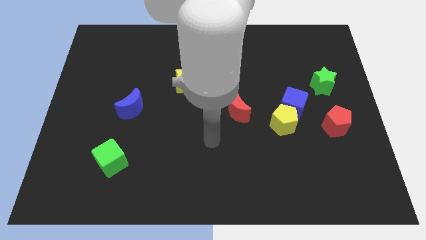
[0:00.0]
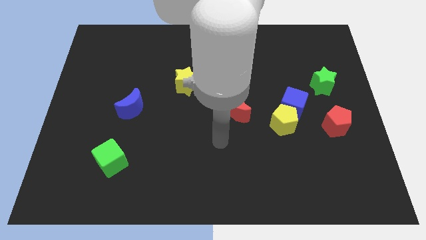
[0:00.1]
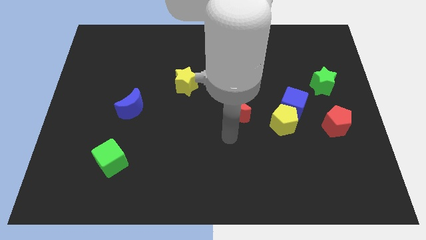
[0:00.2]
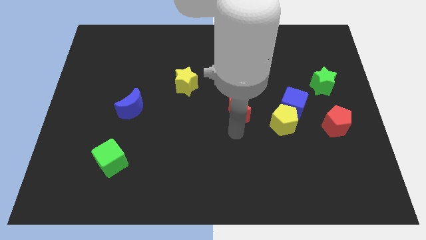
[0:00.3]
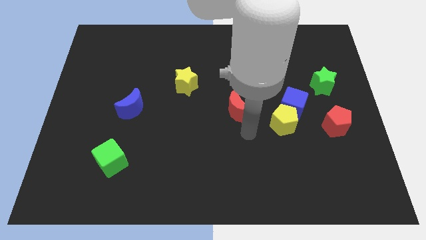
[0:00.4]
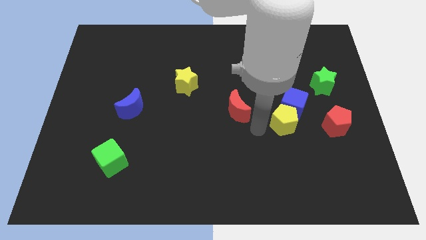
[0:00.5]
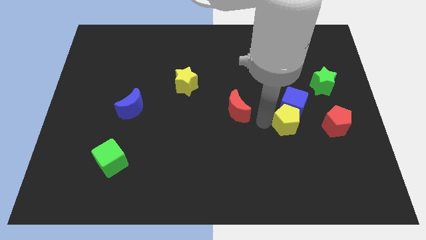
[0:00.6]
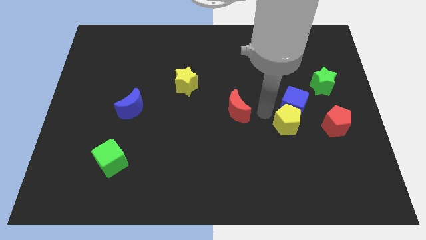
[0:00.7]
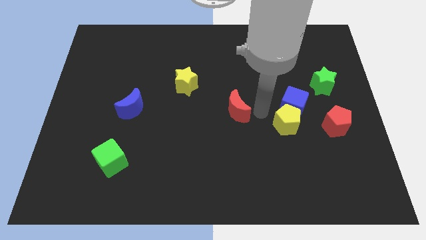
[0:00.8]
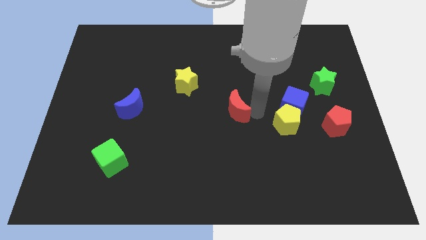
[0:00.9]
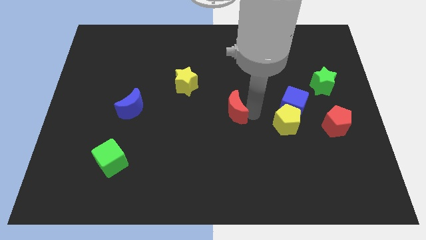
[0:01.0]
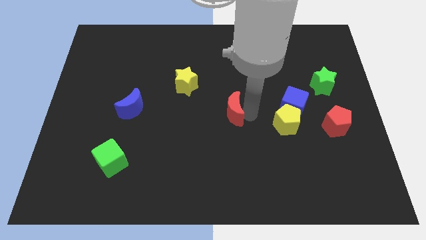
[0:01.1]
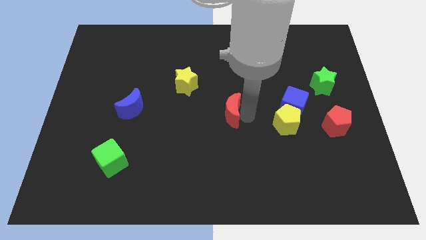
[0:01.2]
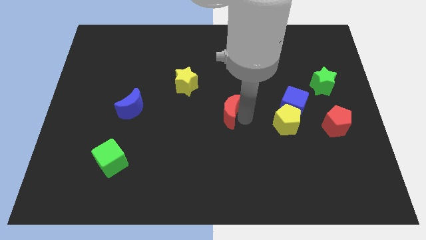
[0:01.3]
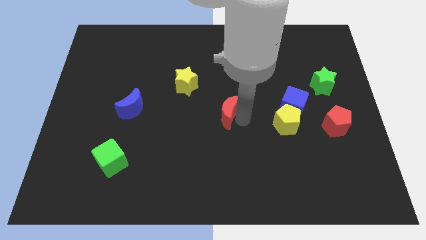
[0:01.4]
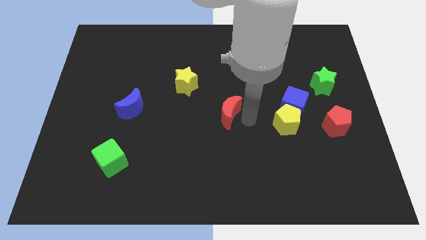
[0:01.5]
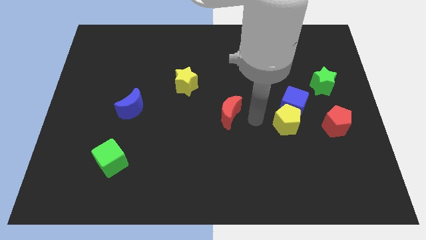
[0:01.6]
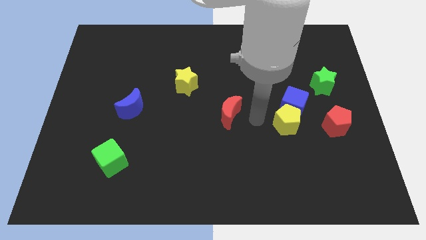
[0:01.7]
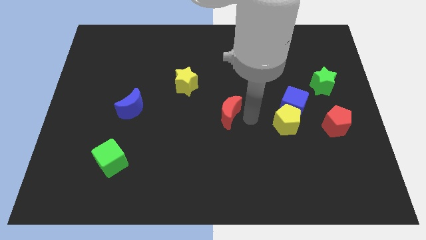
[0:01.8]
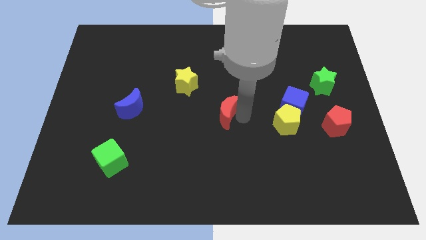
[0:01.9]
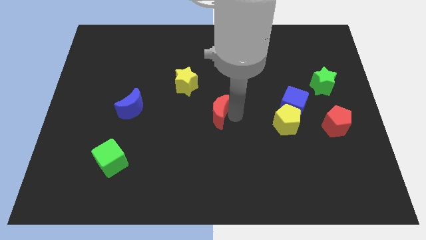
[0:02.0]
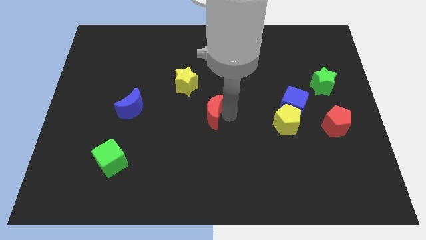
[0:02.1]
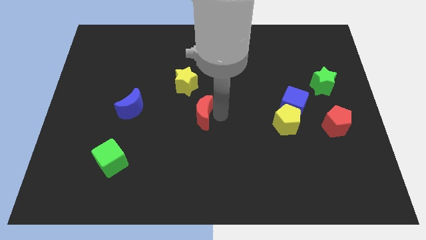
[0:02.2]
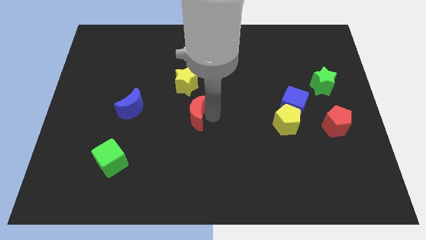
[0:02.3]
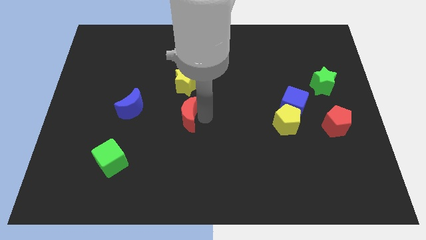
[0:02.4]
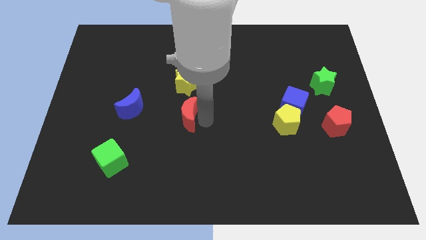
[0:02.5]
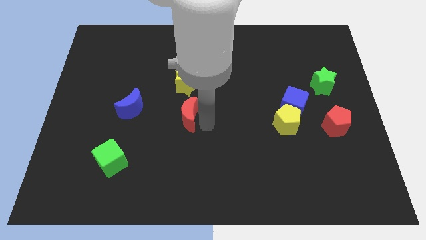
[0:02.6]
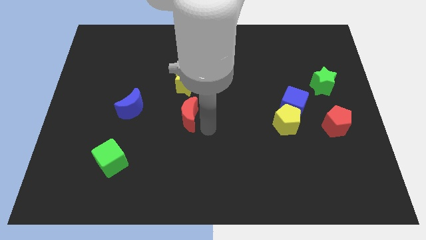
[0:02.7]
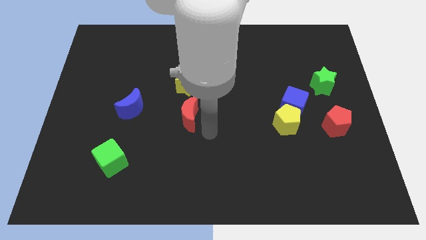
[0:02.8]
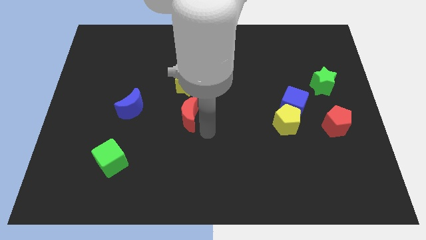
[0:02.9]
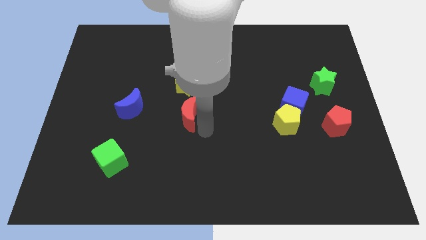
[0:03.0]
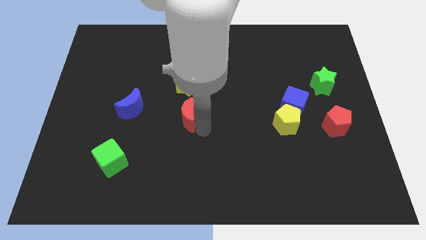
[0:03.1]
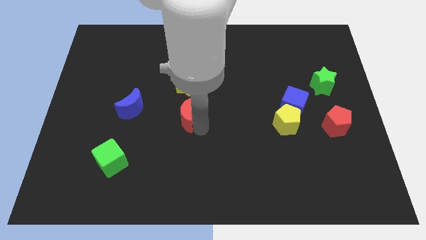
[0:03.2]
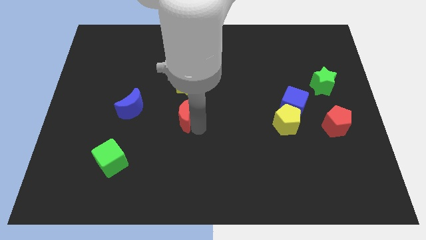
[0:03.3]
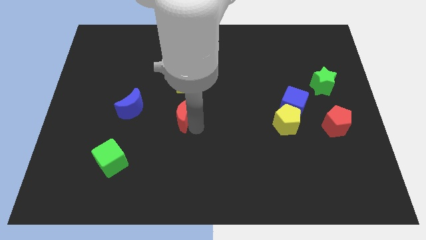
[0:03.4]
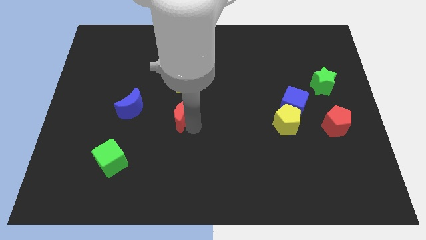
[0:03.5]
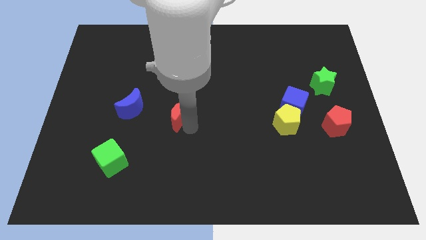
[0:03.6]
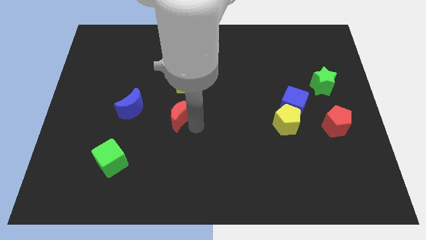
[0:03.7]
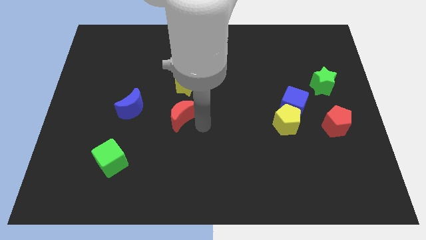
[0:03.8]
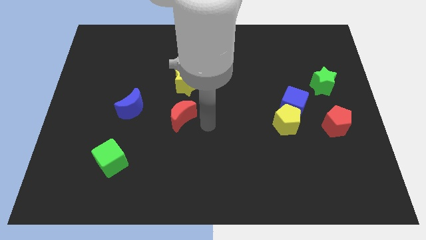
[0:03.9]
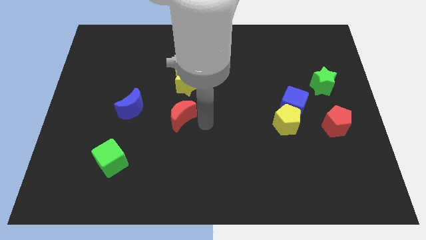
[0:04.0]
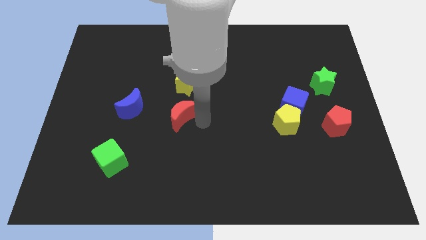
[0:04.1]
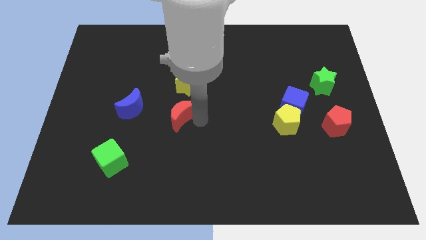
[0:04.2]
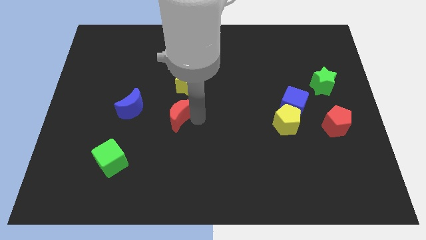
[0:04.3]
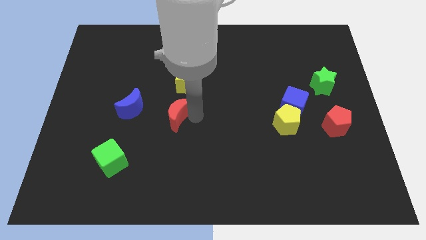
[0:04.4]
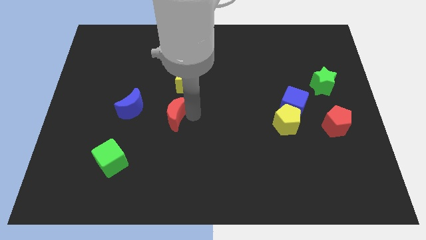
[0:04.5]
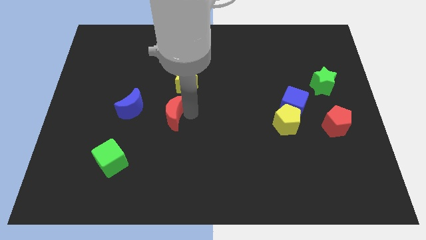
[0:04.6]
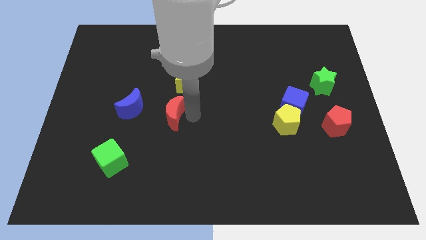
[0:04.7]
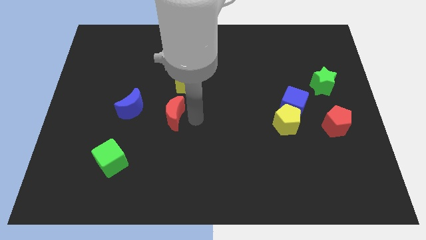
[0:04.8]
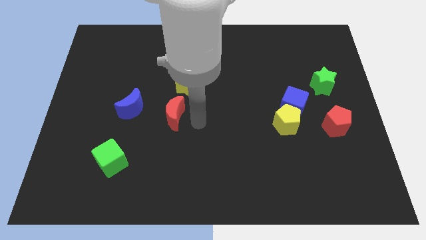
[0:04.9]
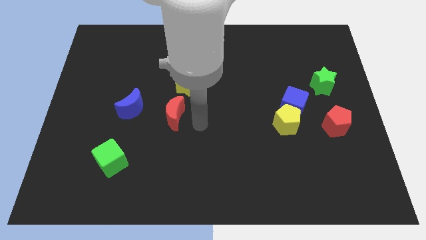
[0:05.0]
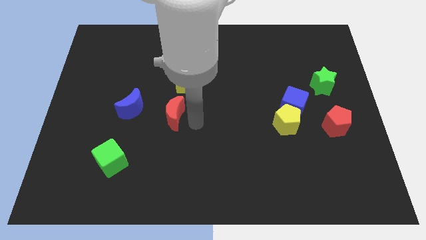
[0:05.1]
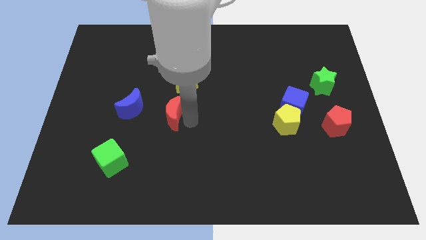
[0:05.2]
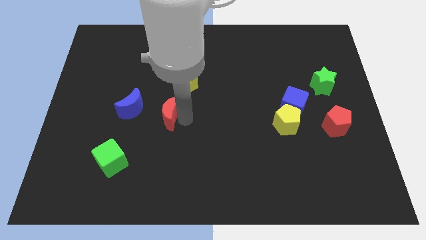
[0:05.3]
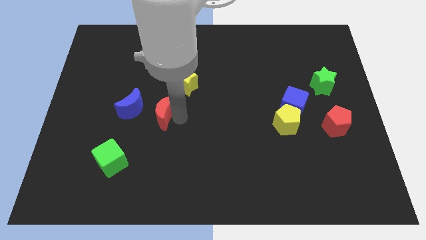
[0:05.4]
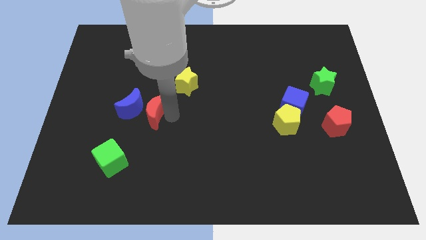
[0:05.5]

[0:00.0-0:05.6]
push the red moon to the blue moon

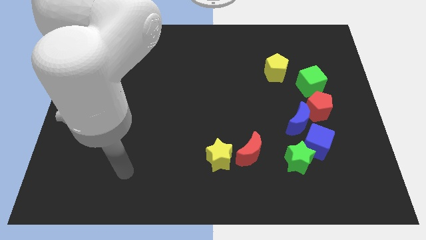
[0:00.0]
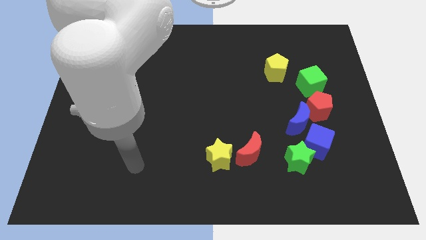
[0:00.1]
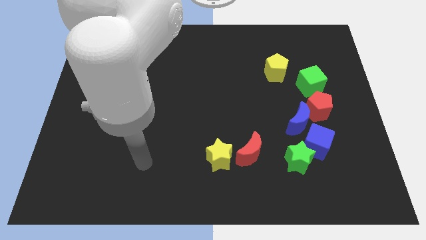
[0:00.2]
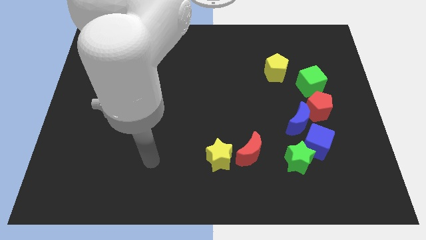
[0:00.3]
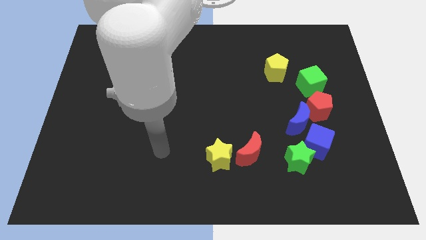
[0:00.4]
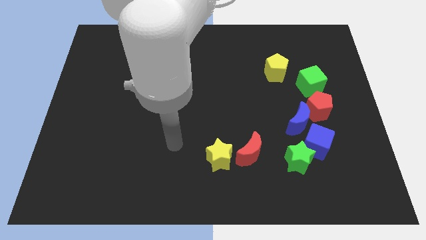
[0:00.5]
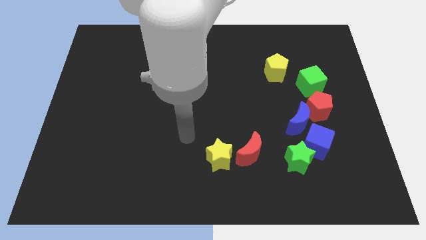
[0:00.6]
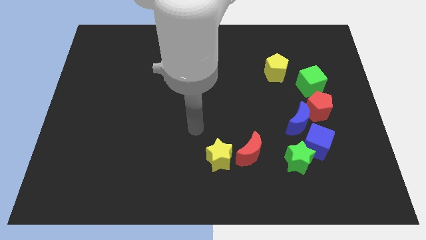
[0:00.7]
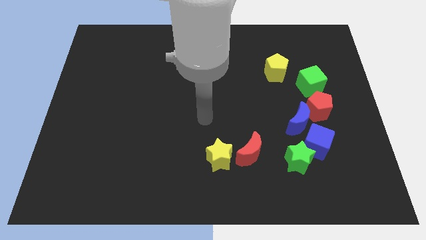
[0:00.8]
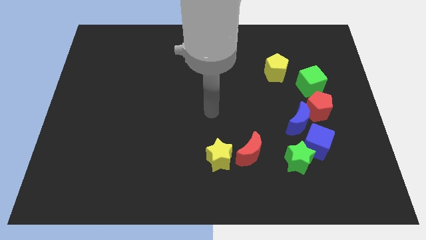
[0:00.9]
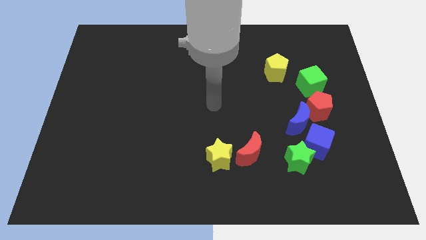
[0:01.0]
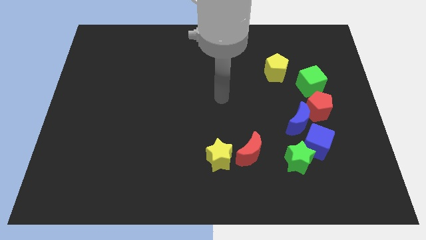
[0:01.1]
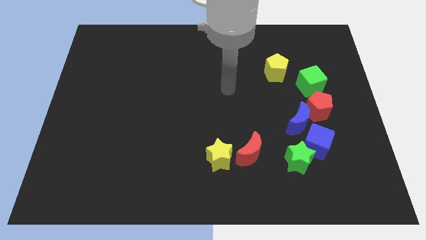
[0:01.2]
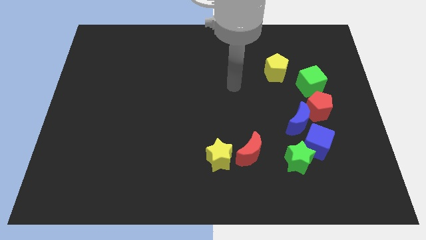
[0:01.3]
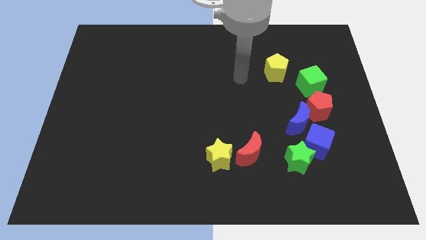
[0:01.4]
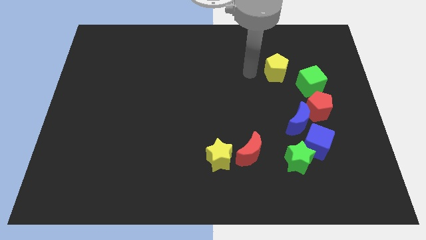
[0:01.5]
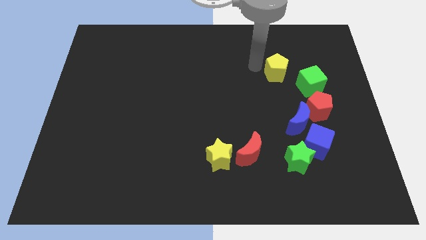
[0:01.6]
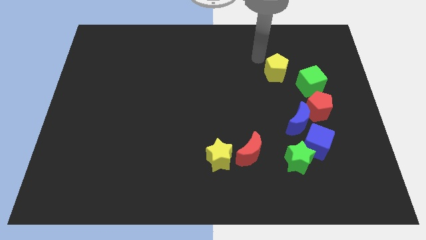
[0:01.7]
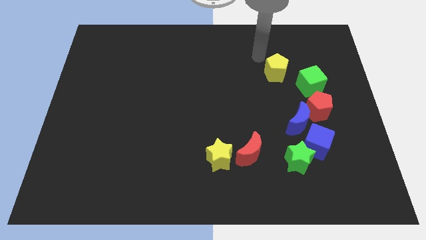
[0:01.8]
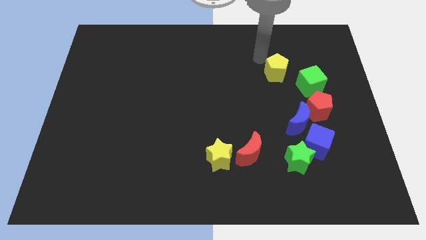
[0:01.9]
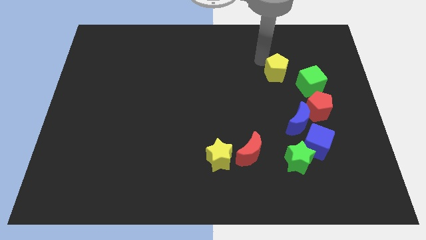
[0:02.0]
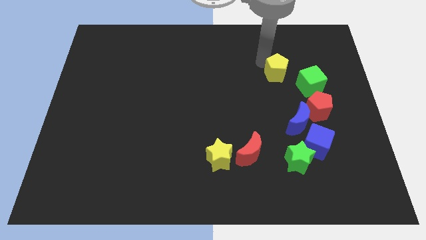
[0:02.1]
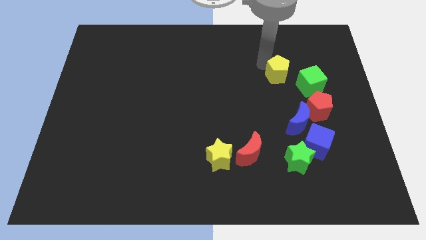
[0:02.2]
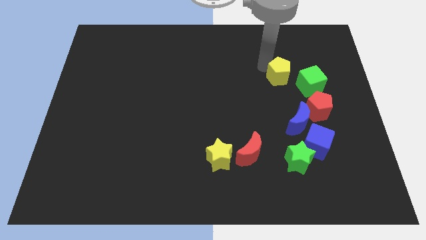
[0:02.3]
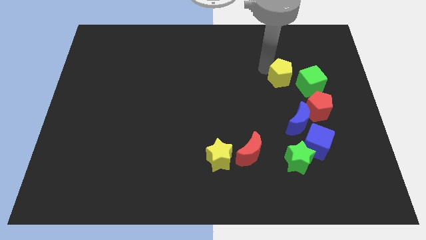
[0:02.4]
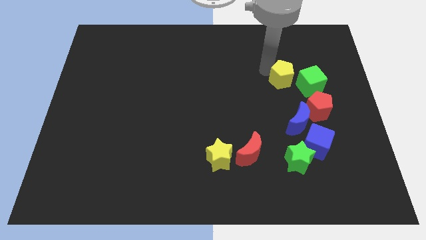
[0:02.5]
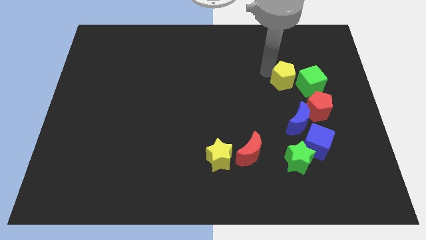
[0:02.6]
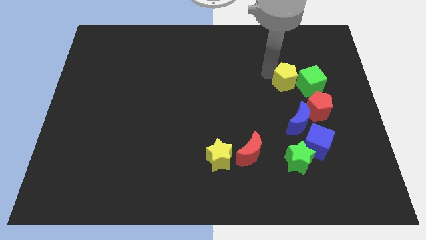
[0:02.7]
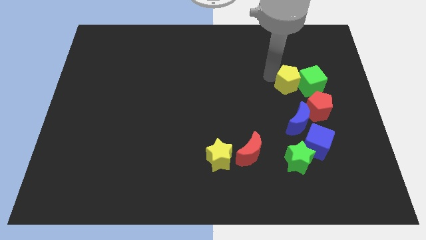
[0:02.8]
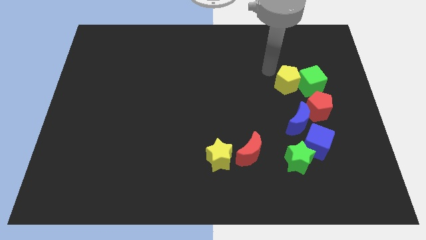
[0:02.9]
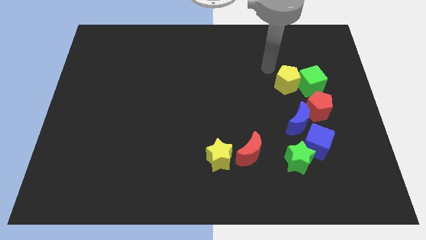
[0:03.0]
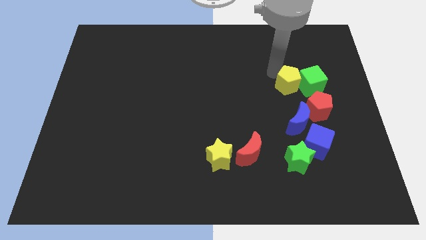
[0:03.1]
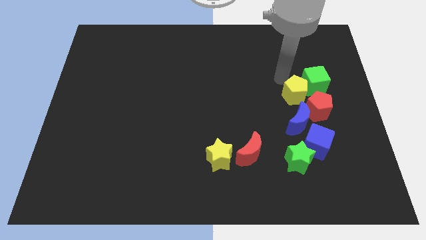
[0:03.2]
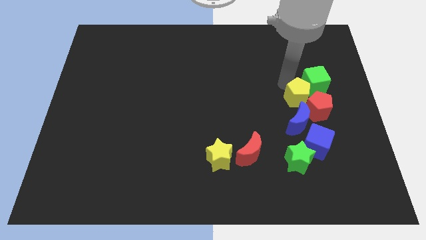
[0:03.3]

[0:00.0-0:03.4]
move the yellow pentagon close to the red pentagon
